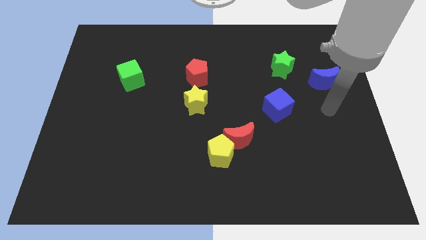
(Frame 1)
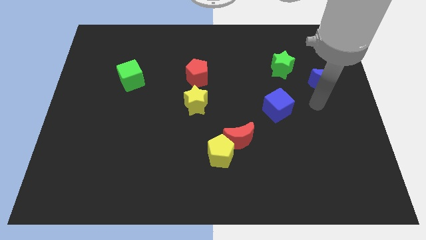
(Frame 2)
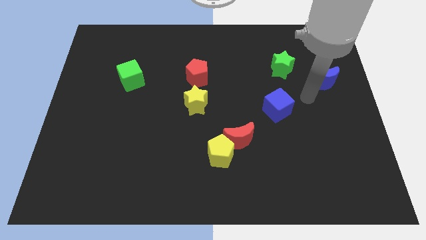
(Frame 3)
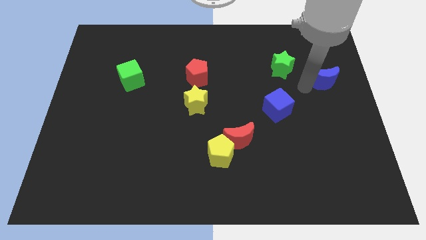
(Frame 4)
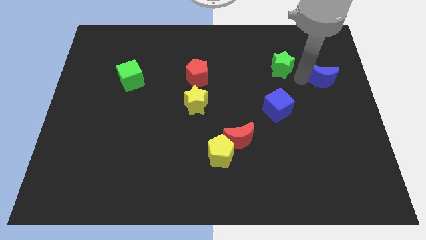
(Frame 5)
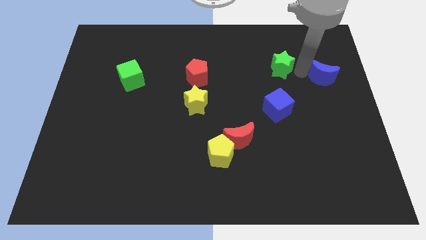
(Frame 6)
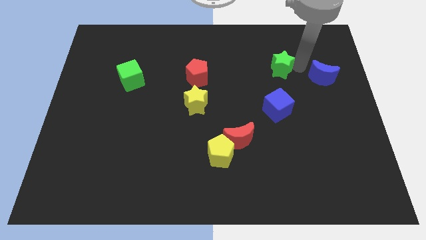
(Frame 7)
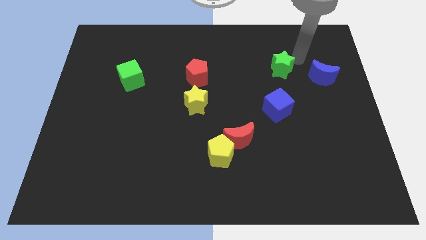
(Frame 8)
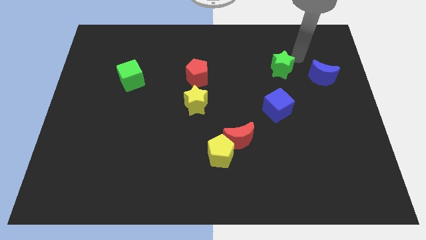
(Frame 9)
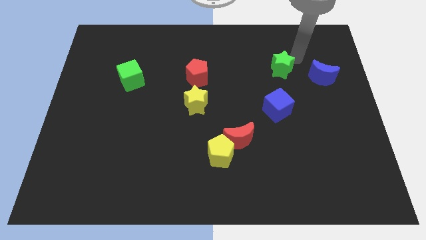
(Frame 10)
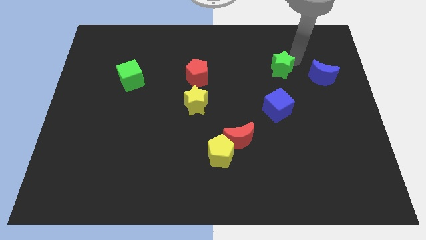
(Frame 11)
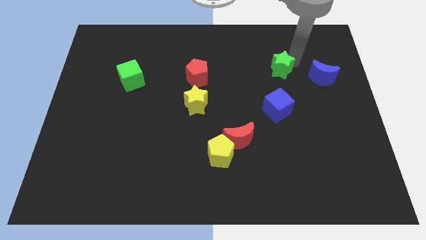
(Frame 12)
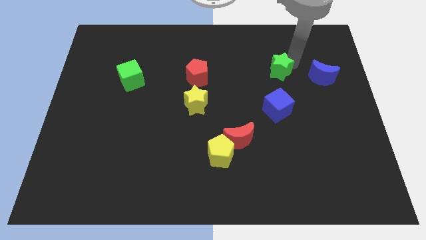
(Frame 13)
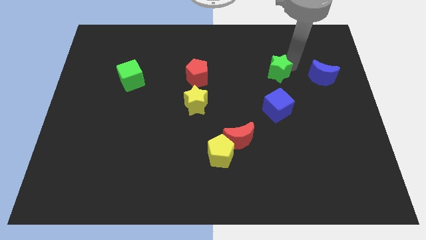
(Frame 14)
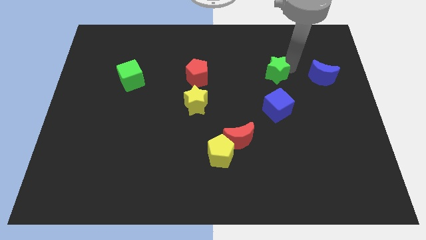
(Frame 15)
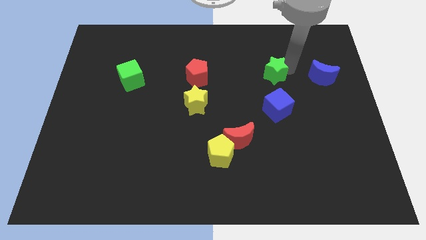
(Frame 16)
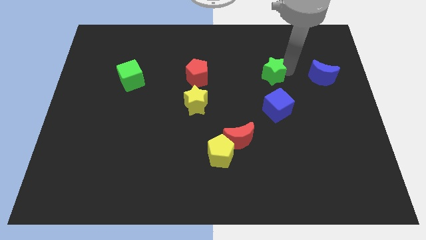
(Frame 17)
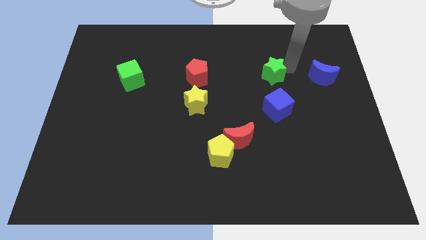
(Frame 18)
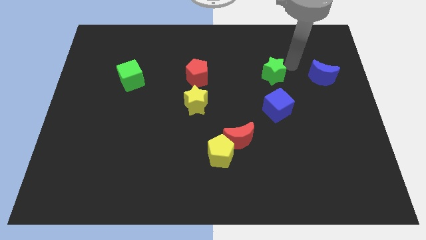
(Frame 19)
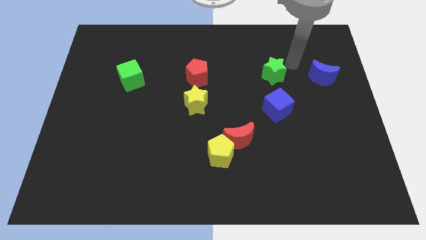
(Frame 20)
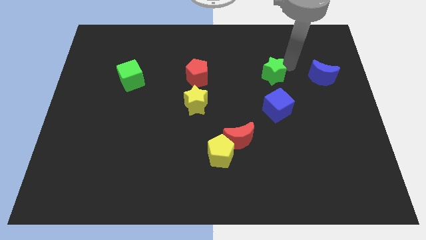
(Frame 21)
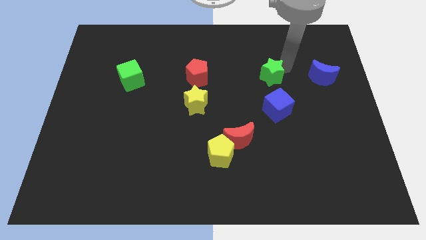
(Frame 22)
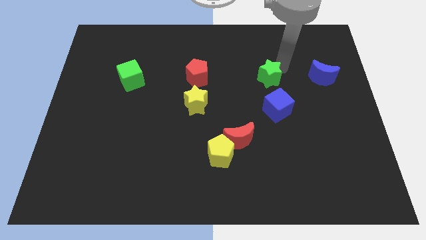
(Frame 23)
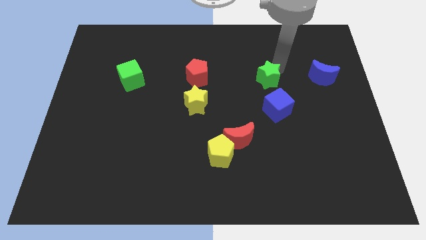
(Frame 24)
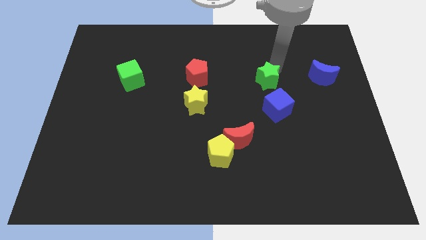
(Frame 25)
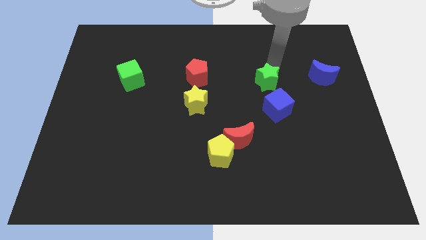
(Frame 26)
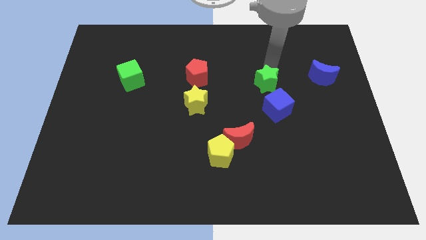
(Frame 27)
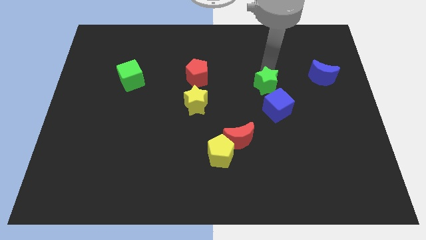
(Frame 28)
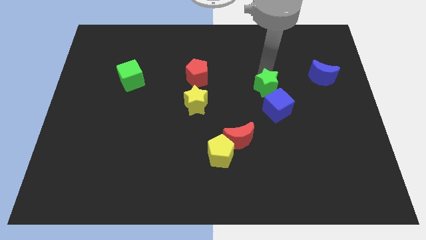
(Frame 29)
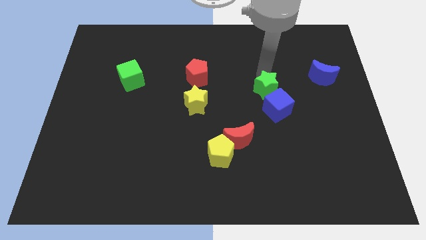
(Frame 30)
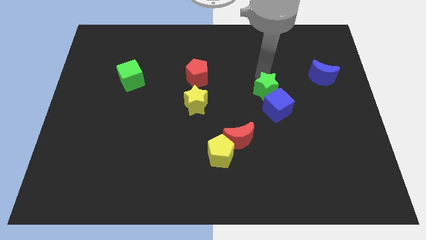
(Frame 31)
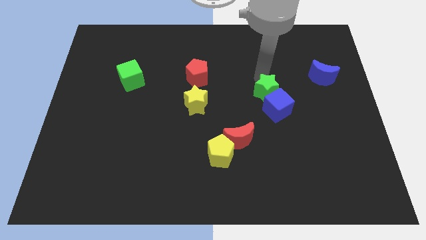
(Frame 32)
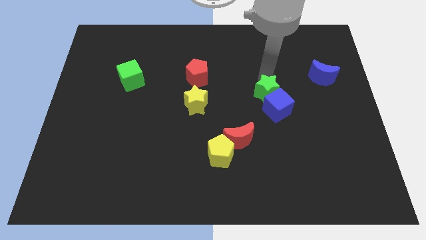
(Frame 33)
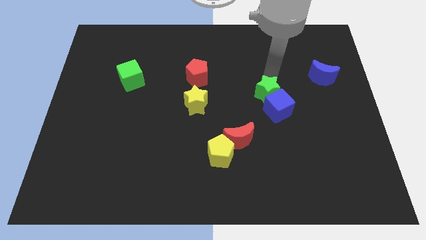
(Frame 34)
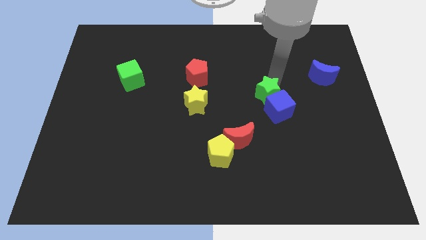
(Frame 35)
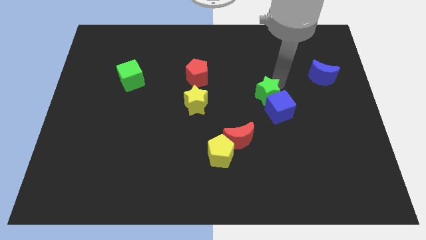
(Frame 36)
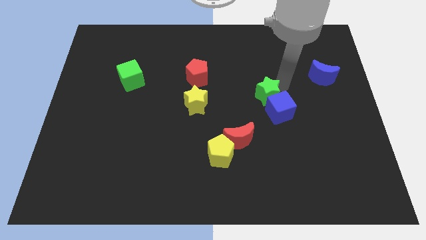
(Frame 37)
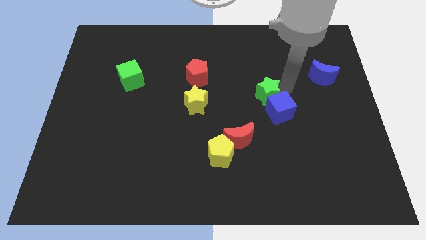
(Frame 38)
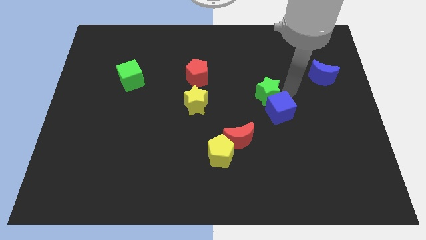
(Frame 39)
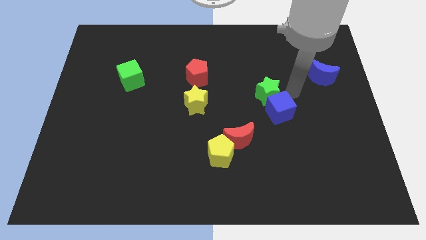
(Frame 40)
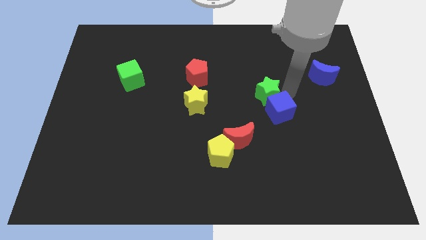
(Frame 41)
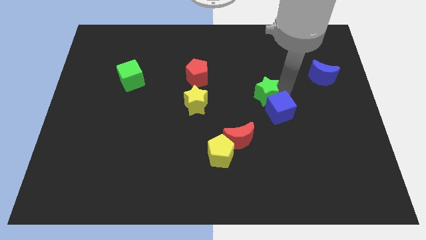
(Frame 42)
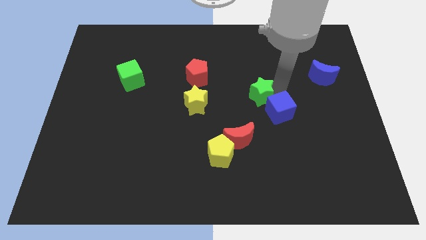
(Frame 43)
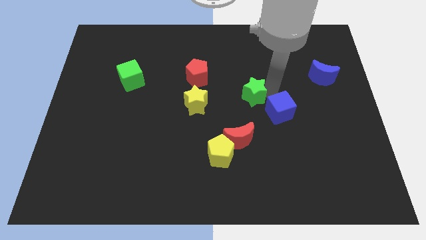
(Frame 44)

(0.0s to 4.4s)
slide the green star above the red moon

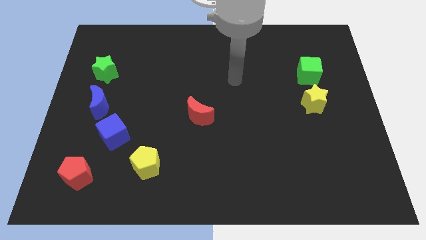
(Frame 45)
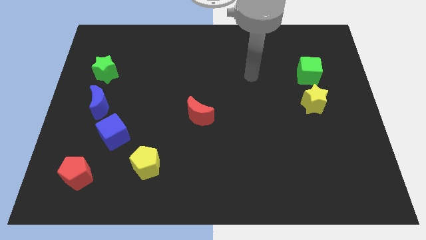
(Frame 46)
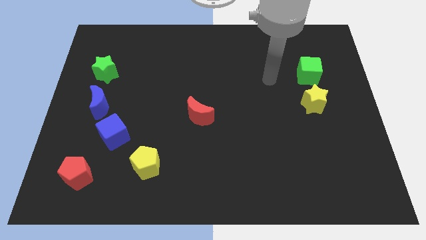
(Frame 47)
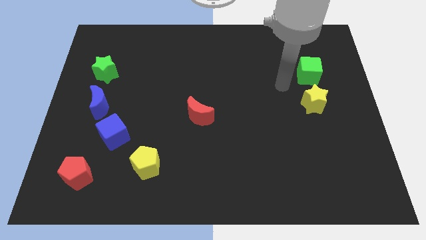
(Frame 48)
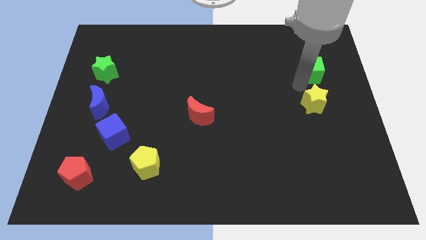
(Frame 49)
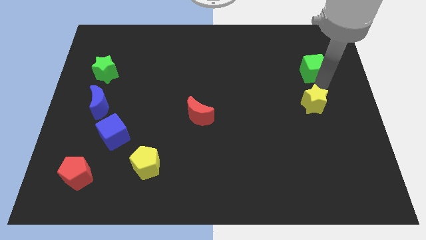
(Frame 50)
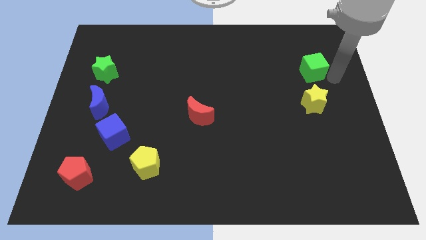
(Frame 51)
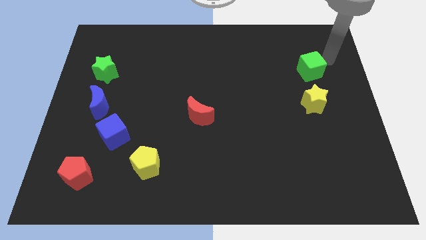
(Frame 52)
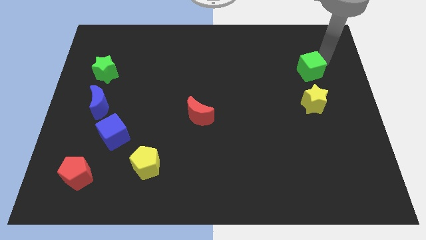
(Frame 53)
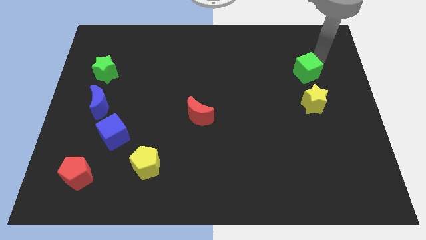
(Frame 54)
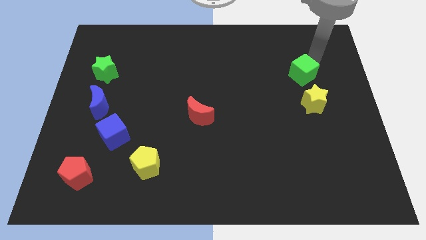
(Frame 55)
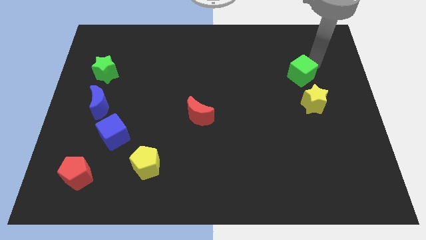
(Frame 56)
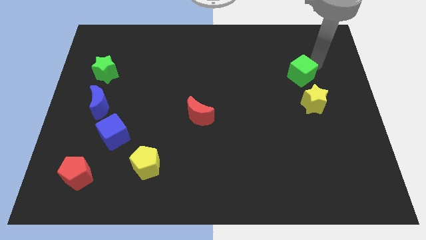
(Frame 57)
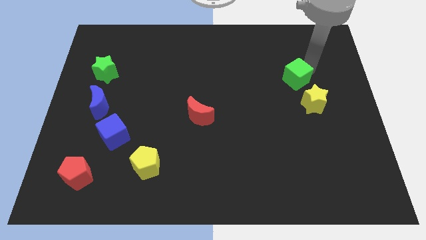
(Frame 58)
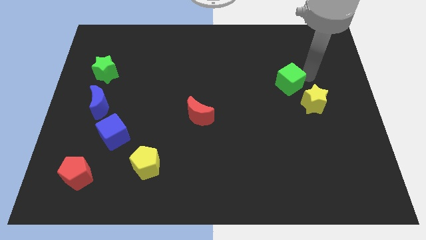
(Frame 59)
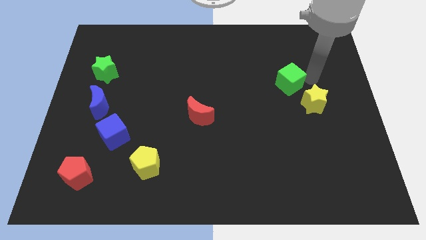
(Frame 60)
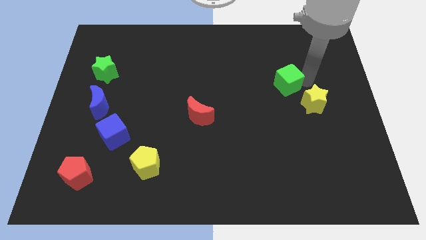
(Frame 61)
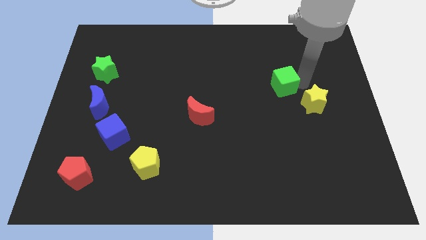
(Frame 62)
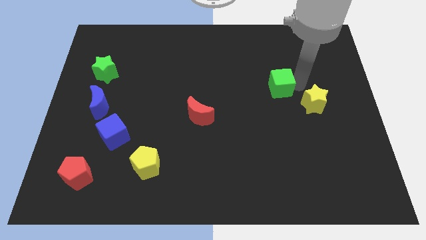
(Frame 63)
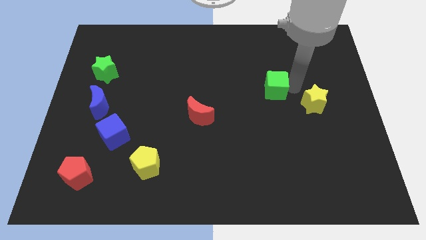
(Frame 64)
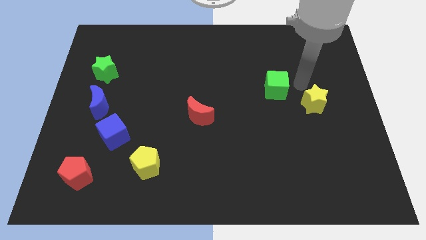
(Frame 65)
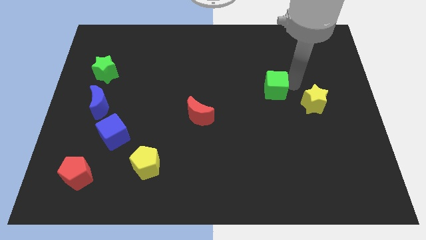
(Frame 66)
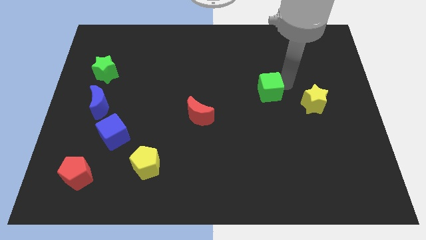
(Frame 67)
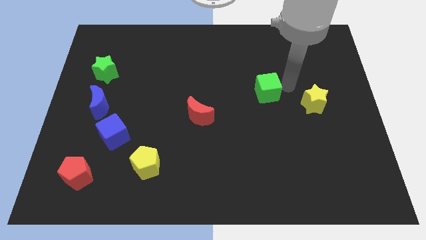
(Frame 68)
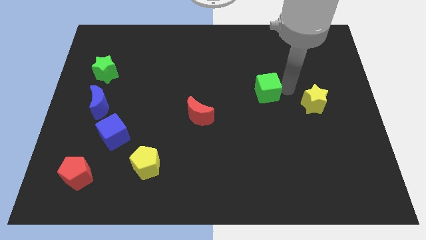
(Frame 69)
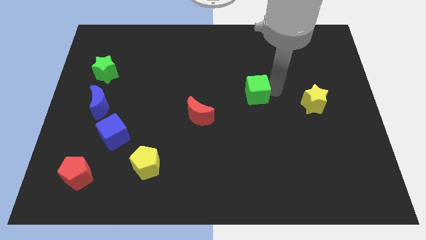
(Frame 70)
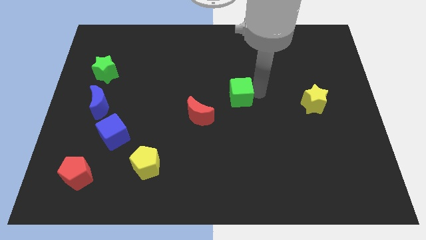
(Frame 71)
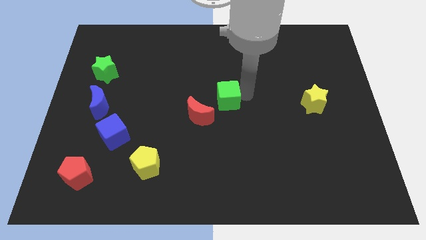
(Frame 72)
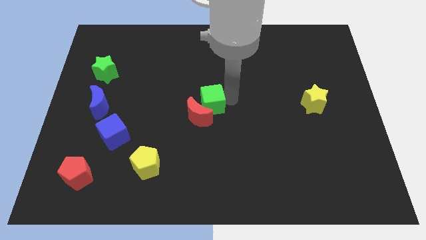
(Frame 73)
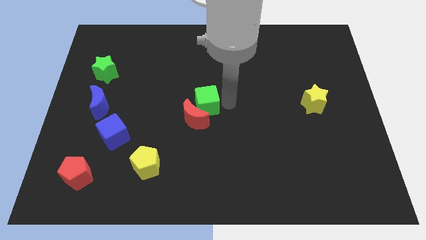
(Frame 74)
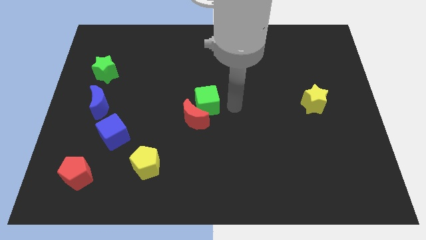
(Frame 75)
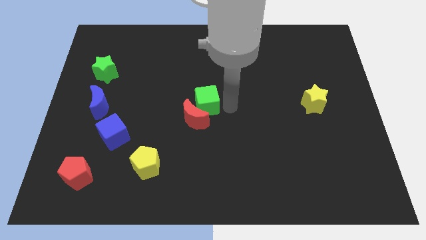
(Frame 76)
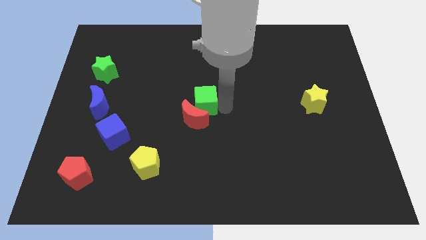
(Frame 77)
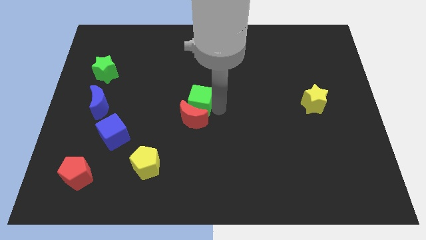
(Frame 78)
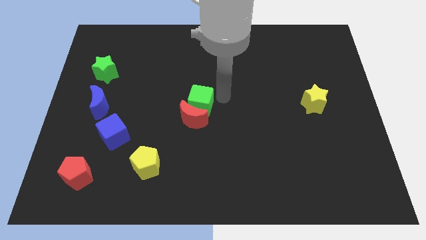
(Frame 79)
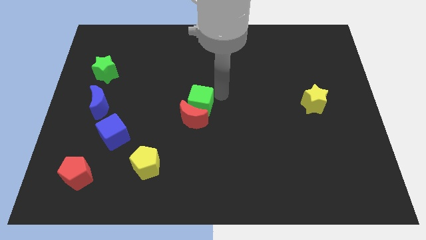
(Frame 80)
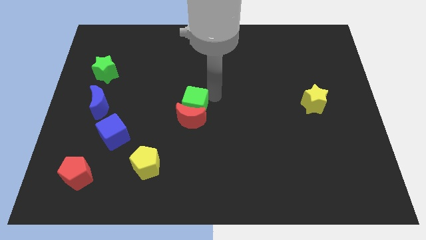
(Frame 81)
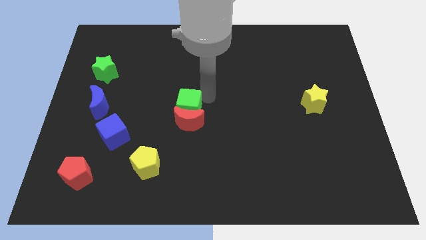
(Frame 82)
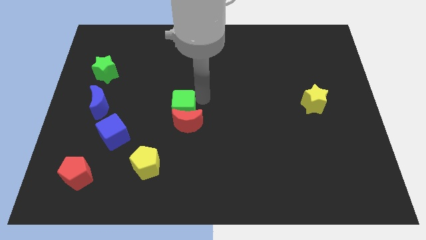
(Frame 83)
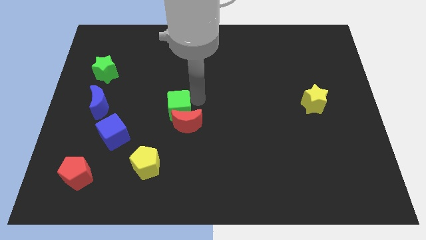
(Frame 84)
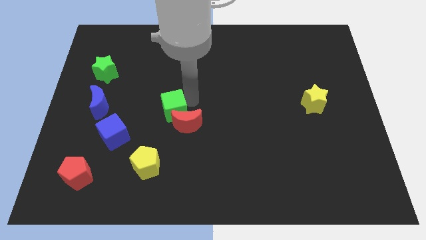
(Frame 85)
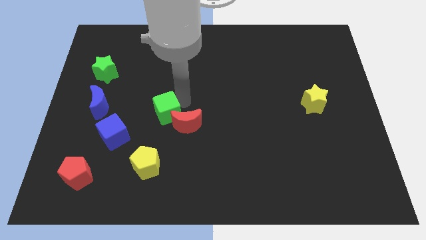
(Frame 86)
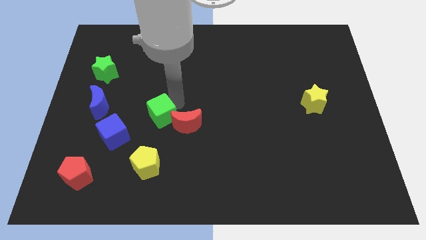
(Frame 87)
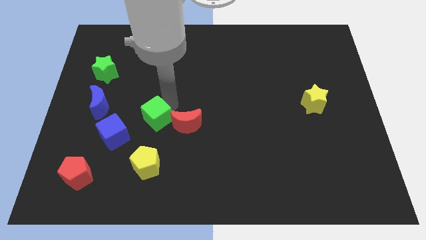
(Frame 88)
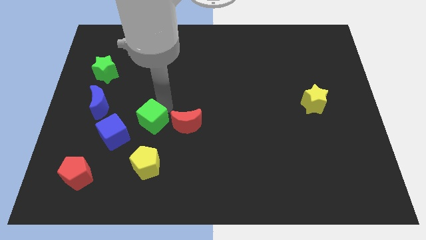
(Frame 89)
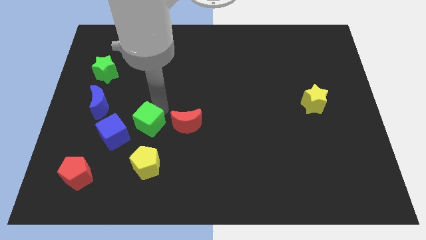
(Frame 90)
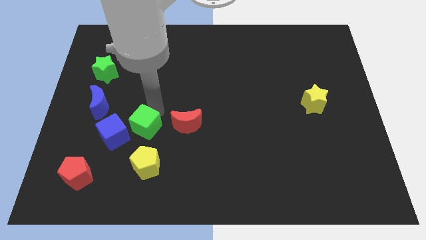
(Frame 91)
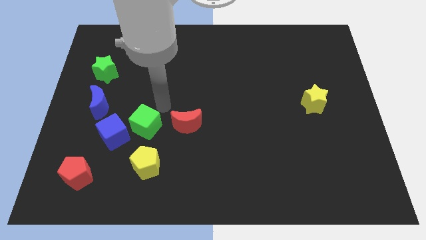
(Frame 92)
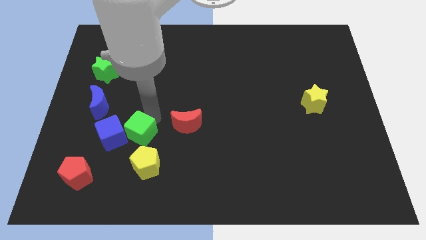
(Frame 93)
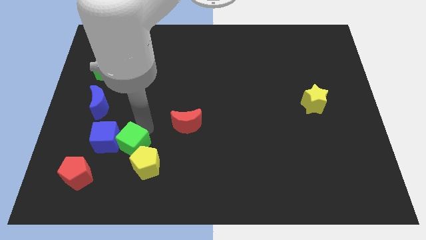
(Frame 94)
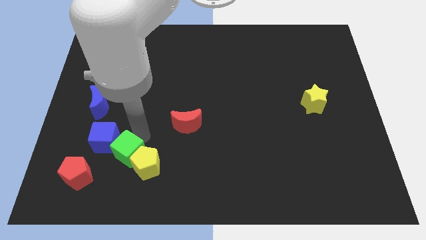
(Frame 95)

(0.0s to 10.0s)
push the green cube left of the yellow pentagon
